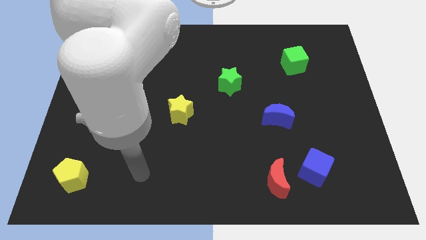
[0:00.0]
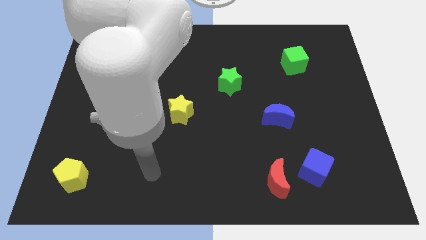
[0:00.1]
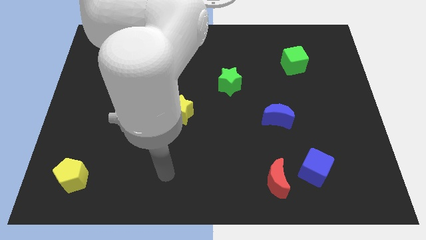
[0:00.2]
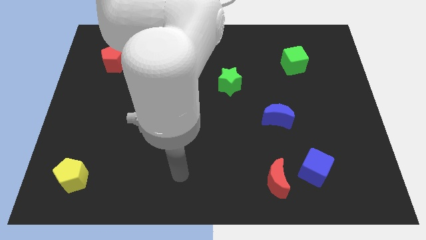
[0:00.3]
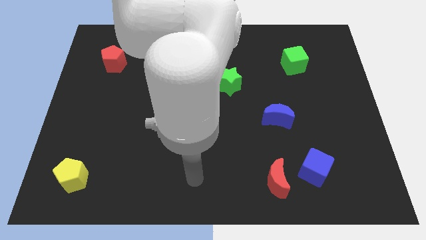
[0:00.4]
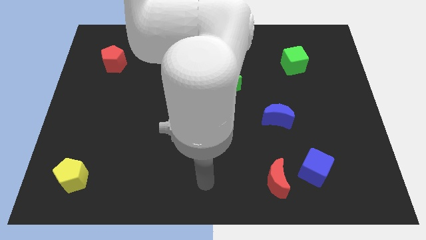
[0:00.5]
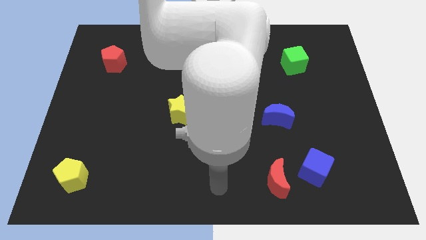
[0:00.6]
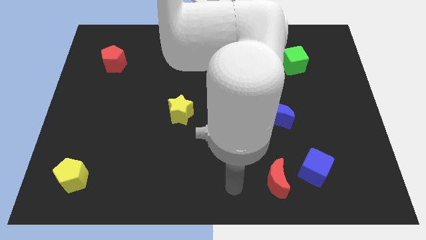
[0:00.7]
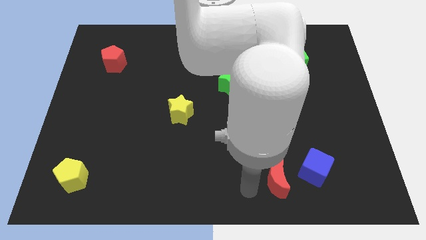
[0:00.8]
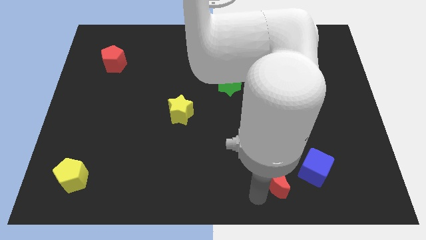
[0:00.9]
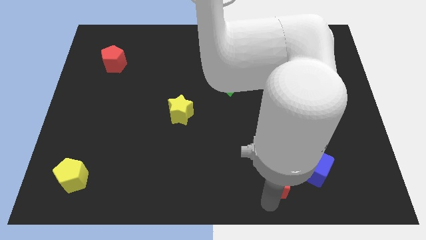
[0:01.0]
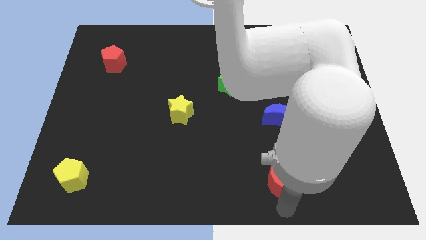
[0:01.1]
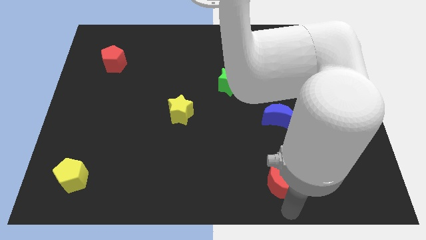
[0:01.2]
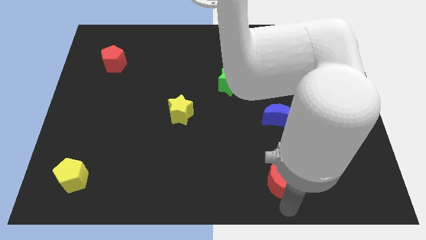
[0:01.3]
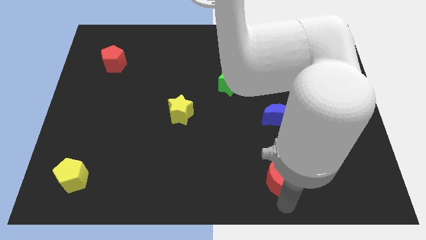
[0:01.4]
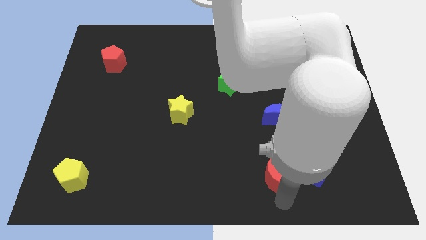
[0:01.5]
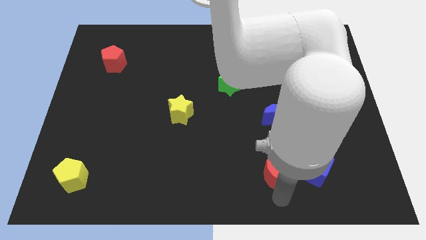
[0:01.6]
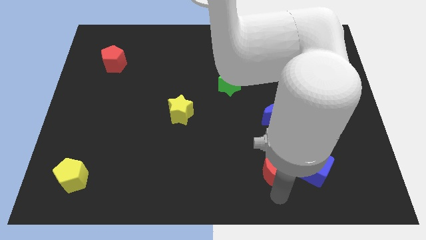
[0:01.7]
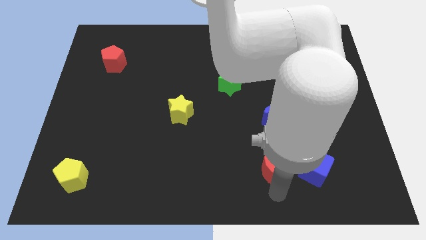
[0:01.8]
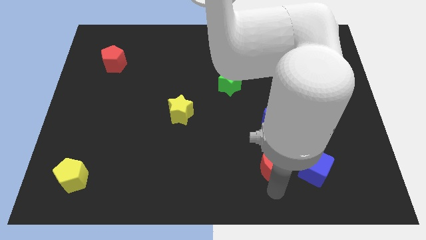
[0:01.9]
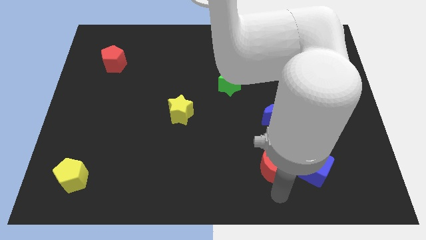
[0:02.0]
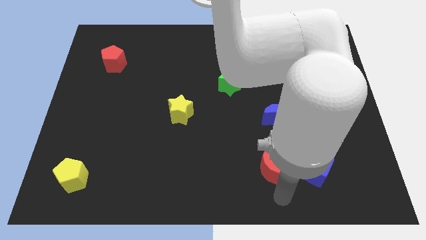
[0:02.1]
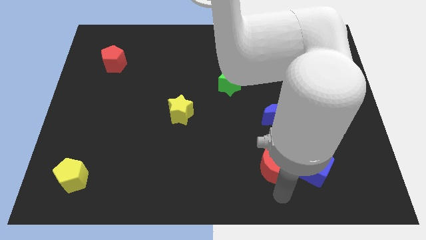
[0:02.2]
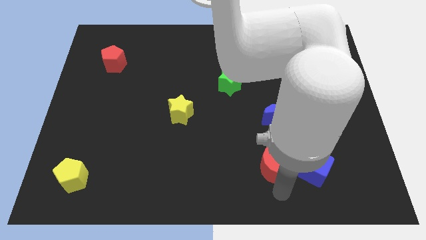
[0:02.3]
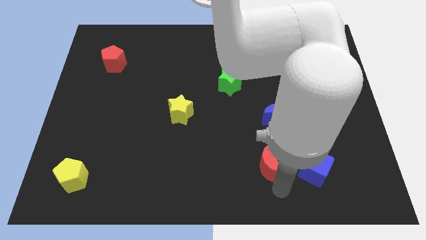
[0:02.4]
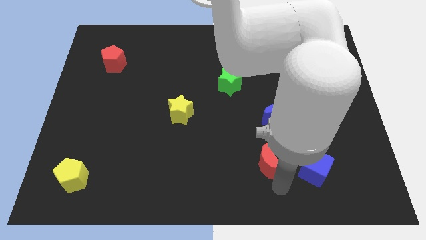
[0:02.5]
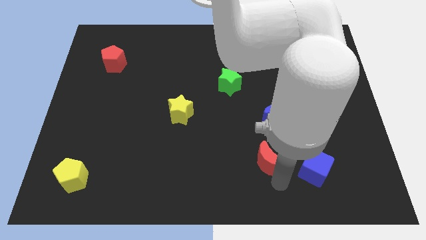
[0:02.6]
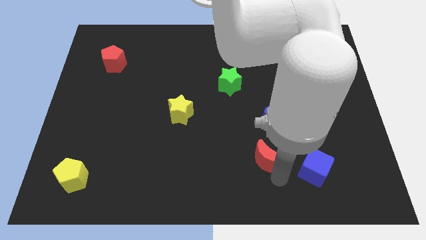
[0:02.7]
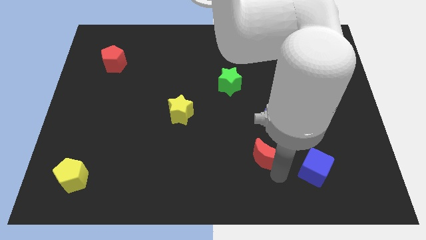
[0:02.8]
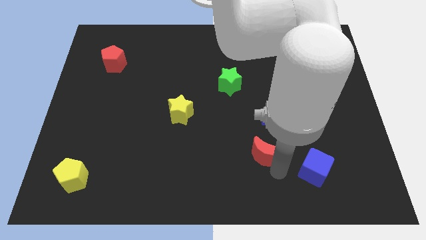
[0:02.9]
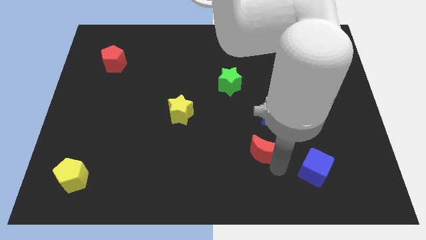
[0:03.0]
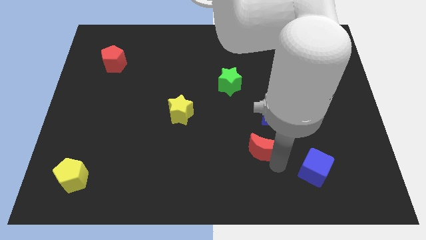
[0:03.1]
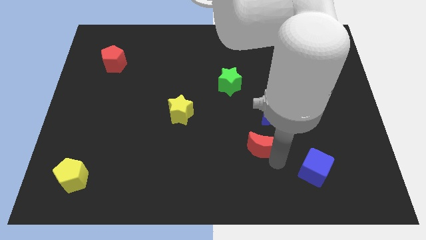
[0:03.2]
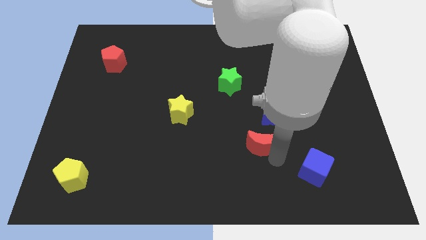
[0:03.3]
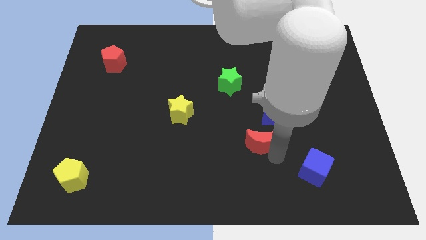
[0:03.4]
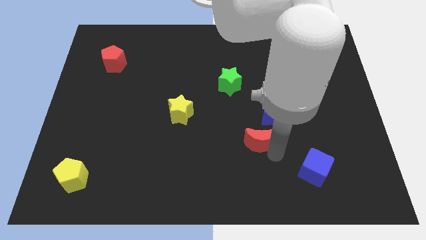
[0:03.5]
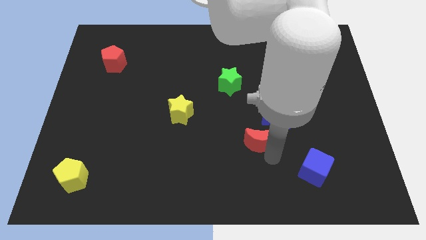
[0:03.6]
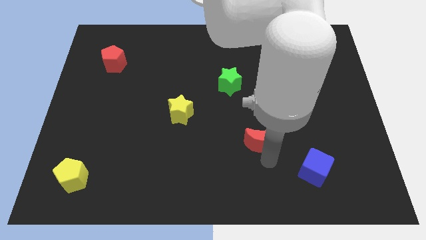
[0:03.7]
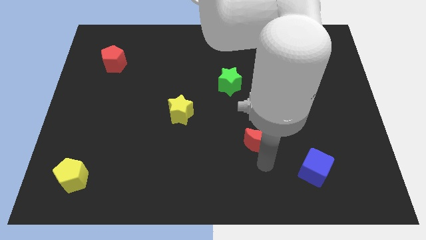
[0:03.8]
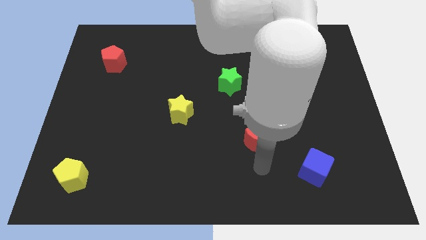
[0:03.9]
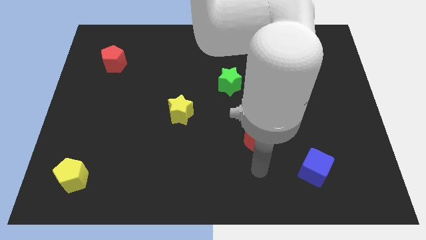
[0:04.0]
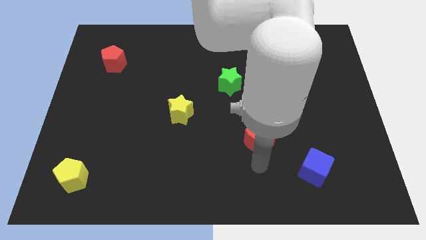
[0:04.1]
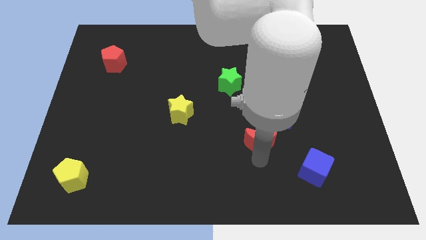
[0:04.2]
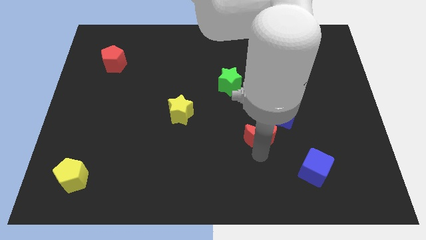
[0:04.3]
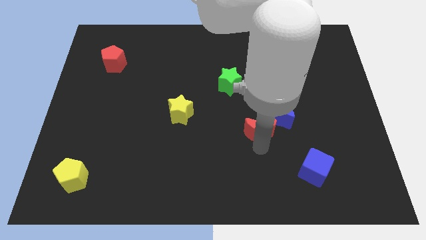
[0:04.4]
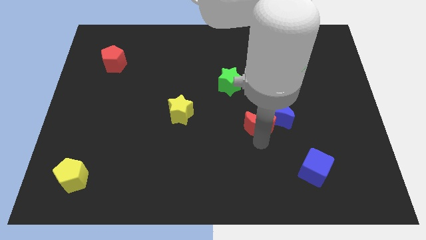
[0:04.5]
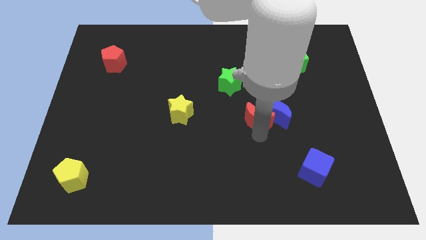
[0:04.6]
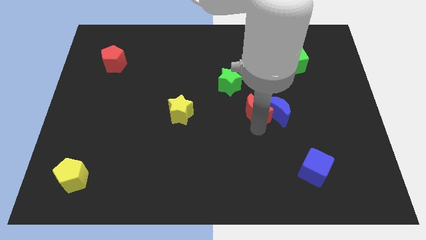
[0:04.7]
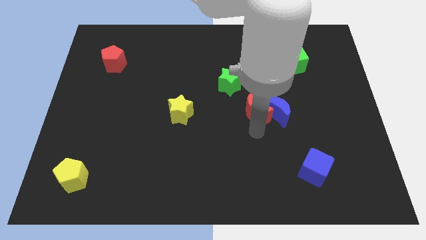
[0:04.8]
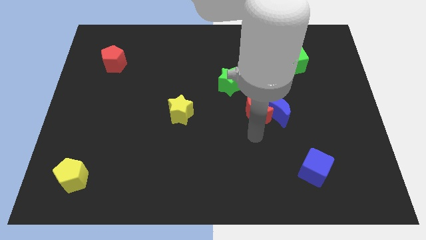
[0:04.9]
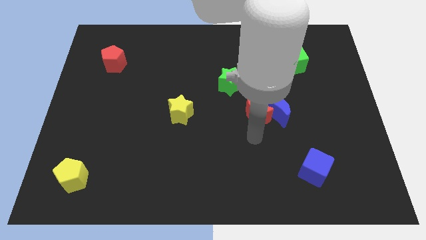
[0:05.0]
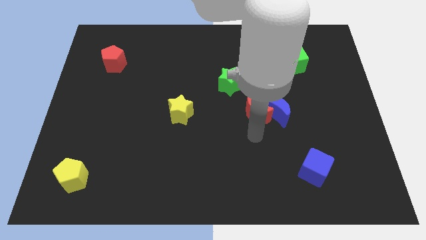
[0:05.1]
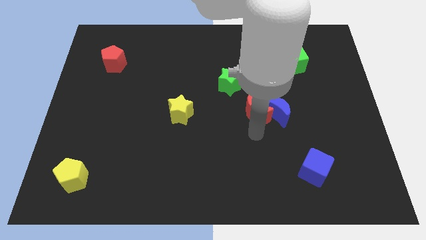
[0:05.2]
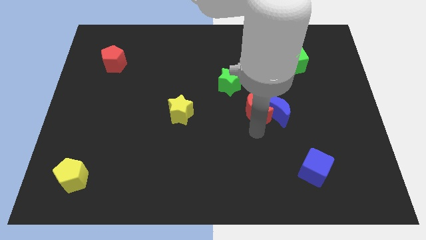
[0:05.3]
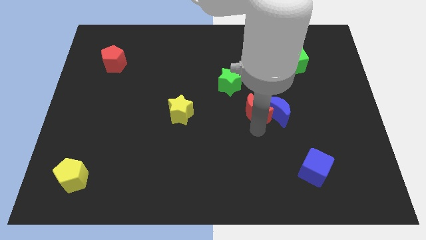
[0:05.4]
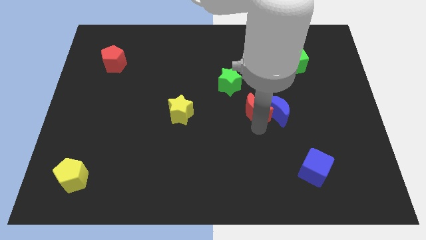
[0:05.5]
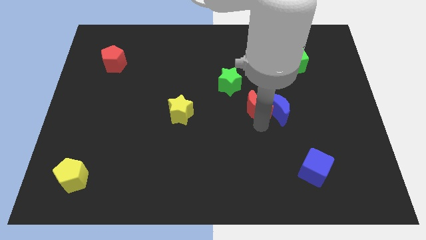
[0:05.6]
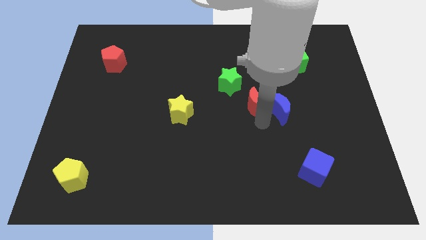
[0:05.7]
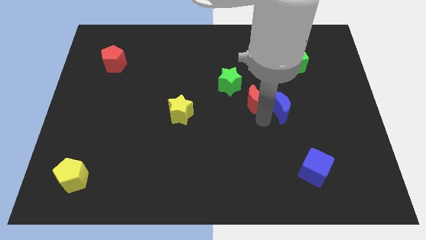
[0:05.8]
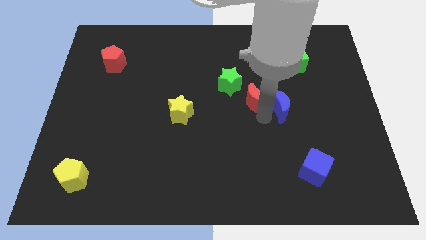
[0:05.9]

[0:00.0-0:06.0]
push the red moon up

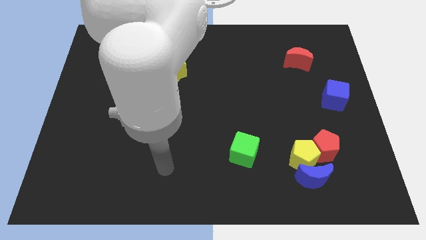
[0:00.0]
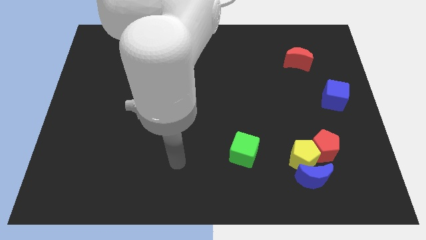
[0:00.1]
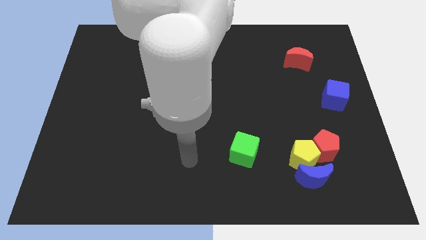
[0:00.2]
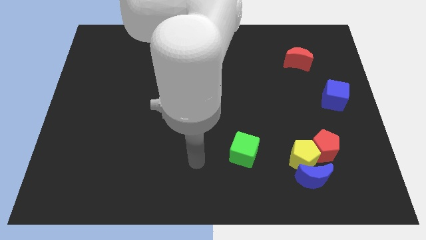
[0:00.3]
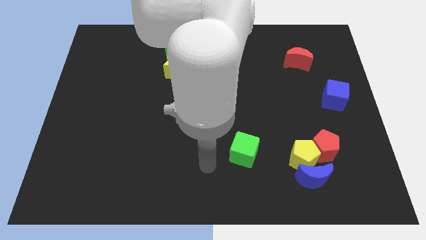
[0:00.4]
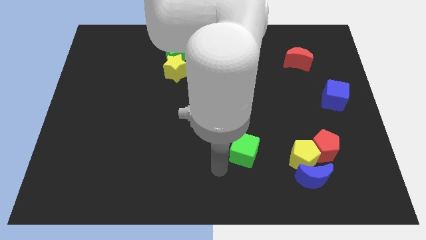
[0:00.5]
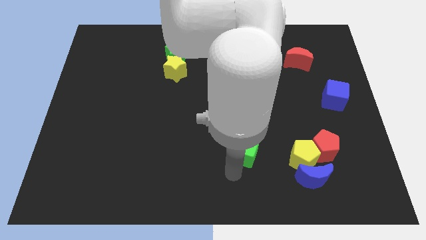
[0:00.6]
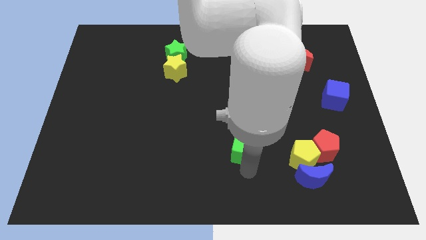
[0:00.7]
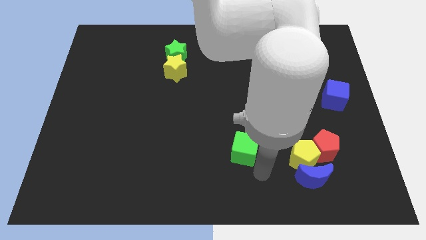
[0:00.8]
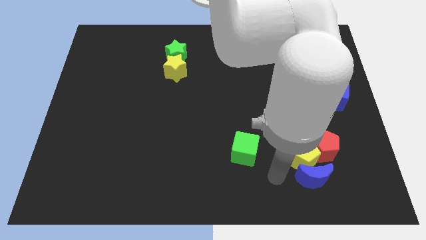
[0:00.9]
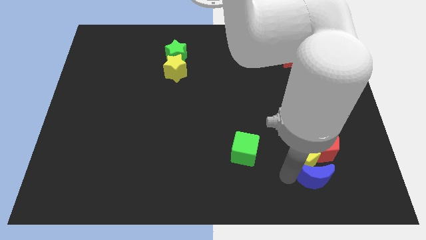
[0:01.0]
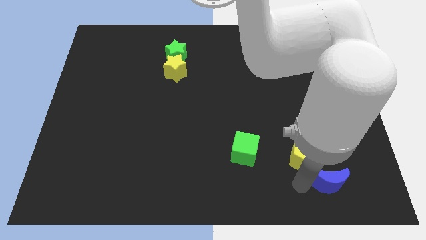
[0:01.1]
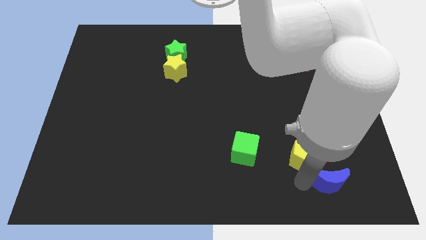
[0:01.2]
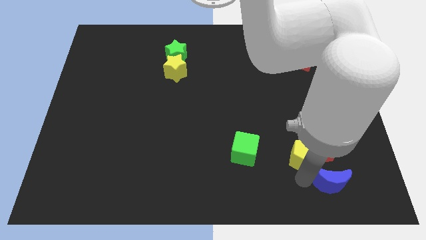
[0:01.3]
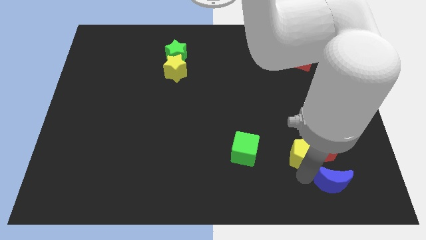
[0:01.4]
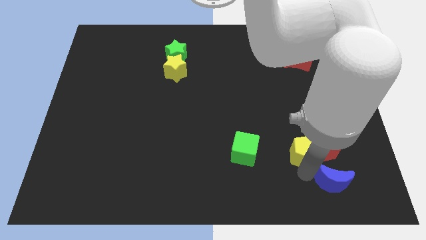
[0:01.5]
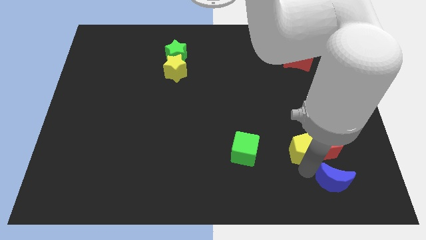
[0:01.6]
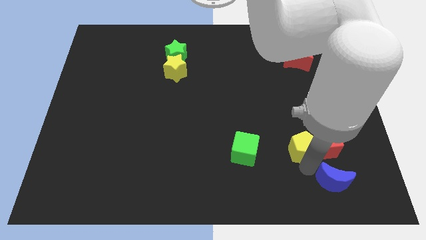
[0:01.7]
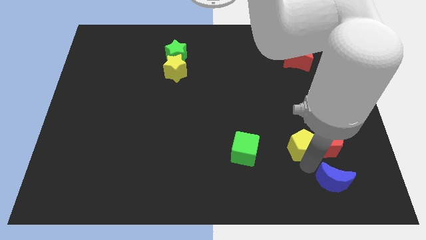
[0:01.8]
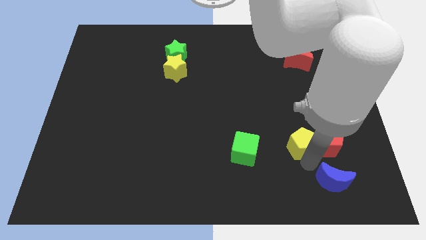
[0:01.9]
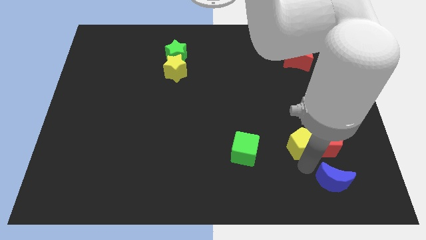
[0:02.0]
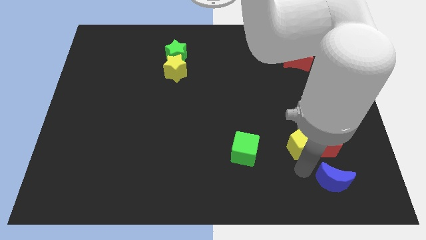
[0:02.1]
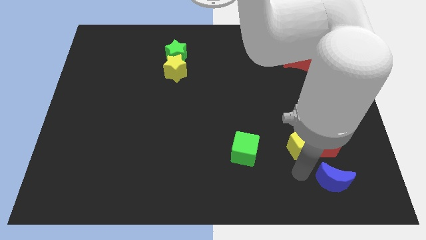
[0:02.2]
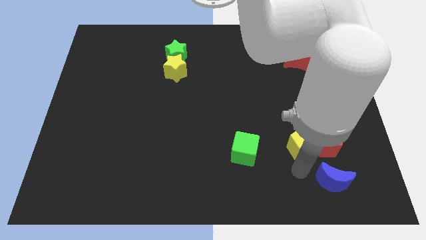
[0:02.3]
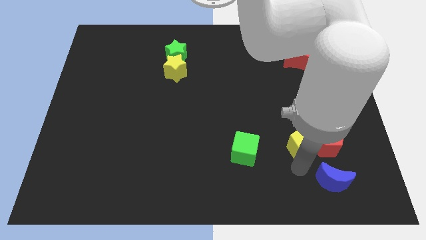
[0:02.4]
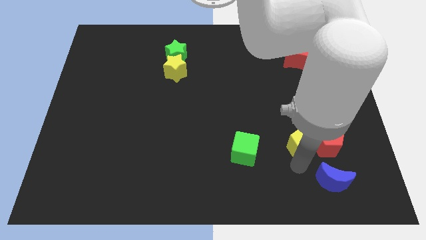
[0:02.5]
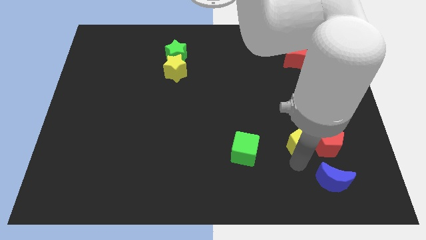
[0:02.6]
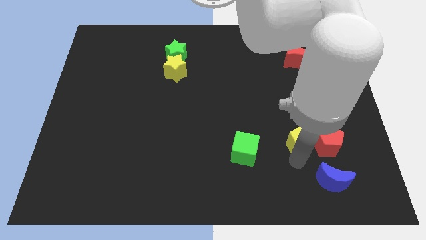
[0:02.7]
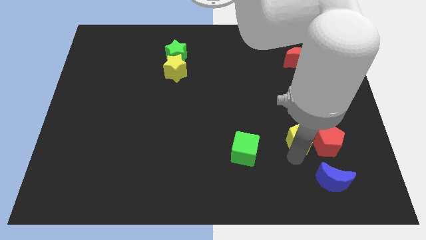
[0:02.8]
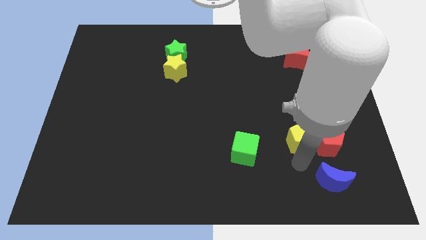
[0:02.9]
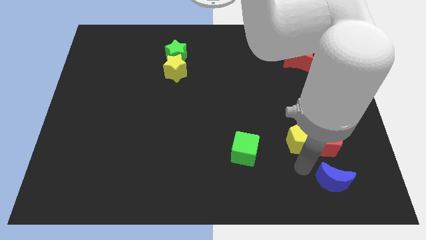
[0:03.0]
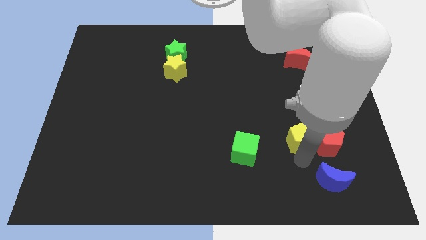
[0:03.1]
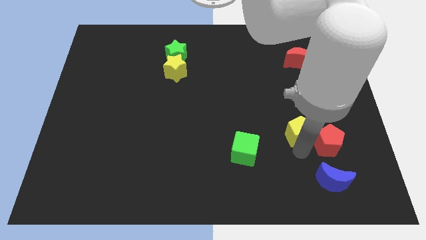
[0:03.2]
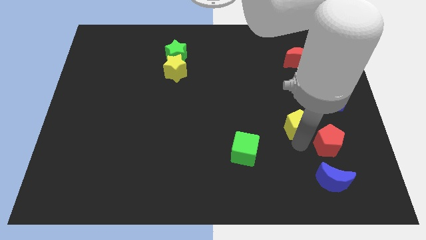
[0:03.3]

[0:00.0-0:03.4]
move the yellow pentagon up a little
